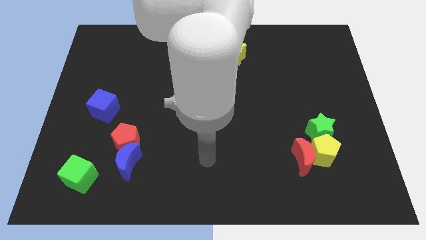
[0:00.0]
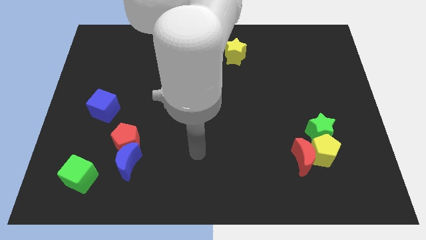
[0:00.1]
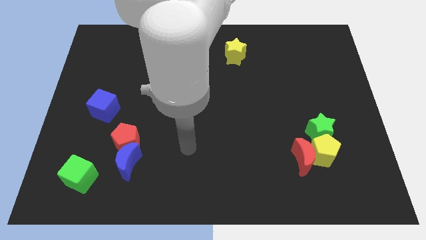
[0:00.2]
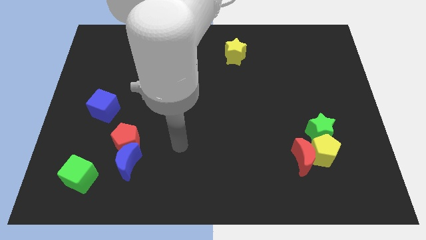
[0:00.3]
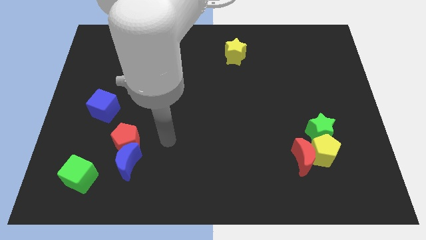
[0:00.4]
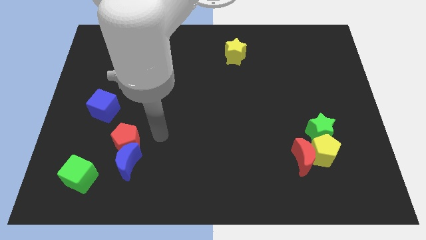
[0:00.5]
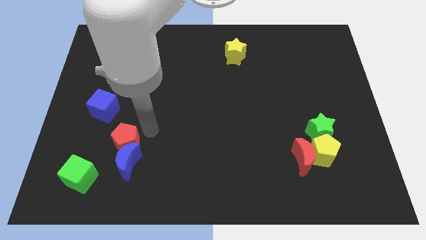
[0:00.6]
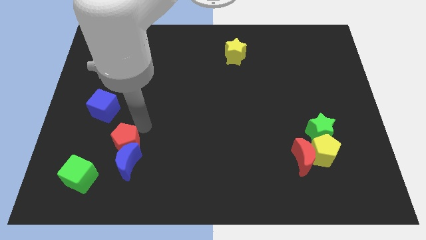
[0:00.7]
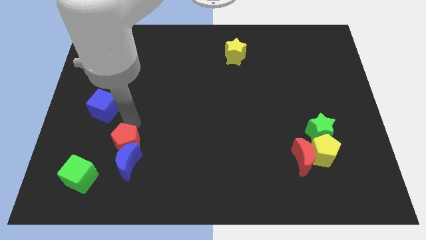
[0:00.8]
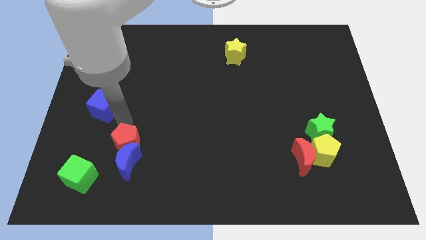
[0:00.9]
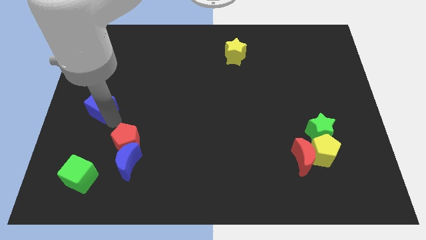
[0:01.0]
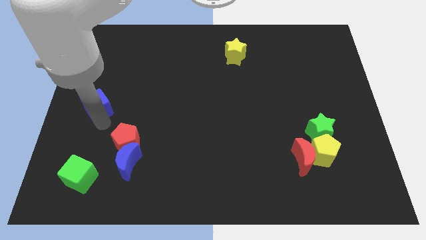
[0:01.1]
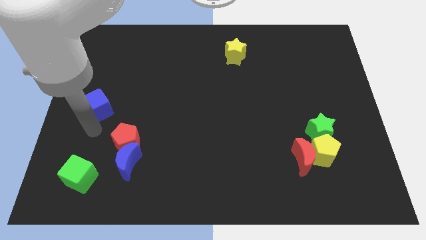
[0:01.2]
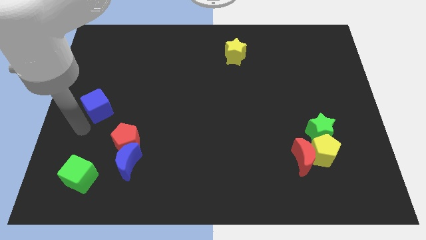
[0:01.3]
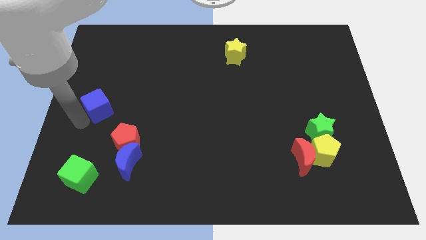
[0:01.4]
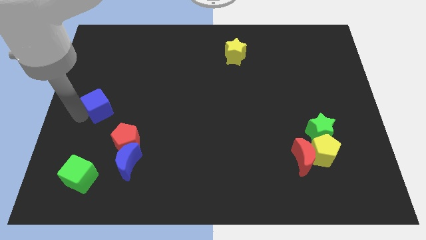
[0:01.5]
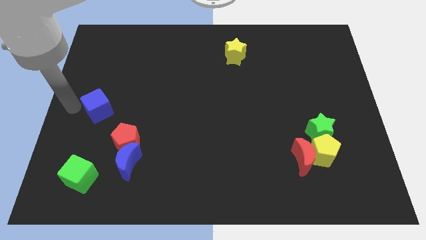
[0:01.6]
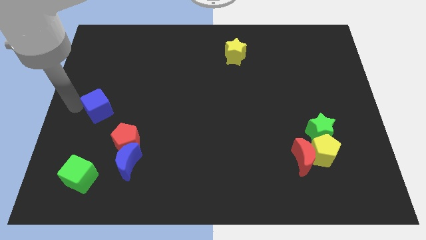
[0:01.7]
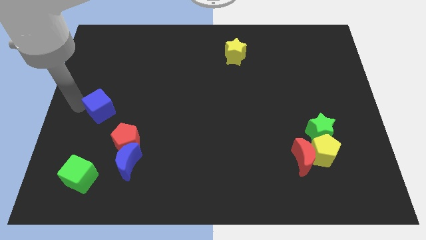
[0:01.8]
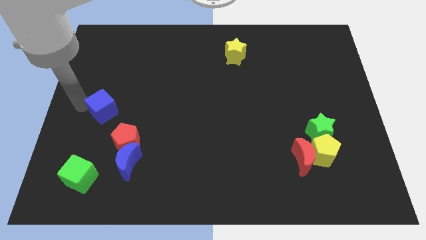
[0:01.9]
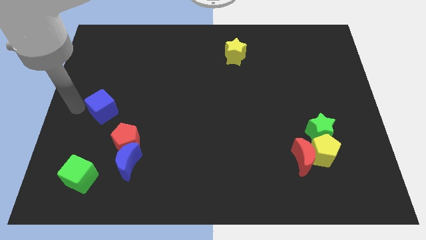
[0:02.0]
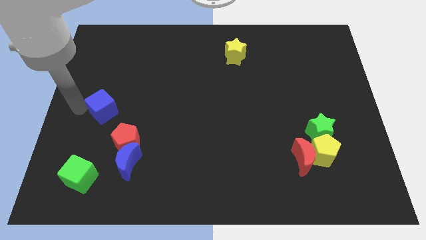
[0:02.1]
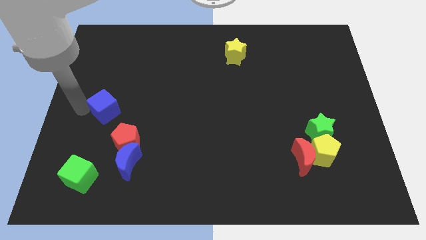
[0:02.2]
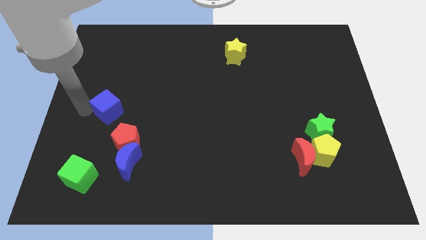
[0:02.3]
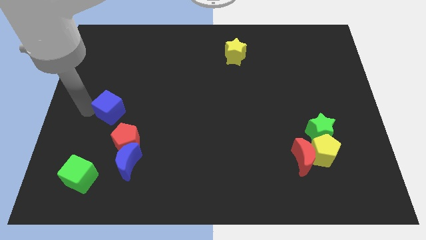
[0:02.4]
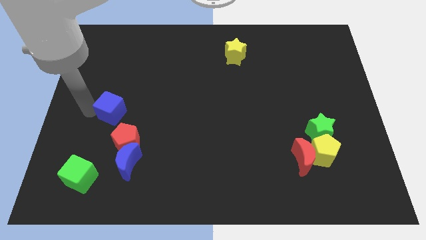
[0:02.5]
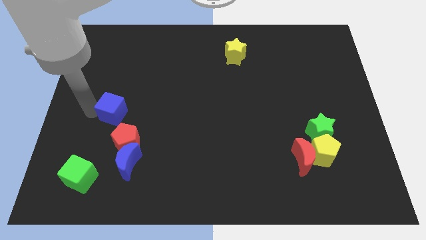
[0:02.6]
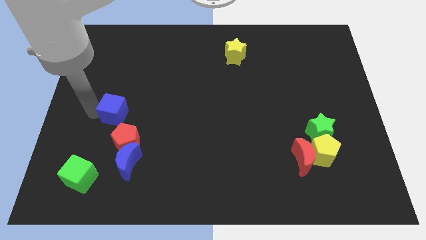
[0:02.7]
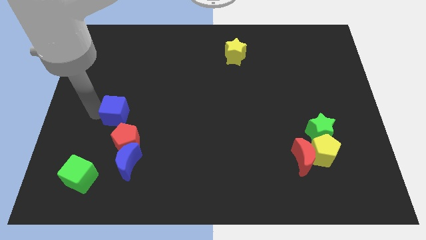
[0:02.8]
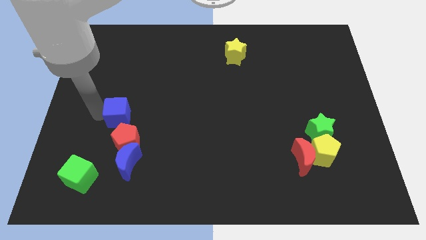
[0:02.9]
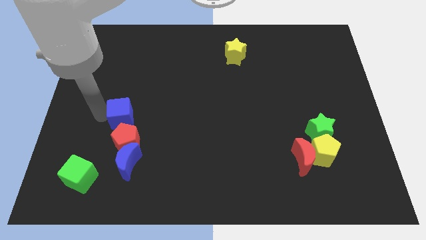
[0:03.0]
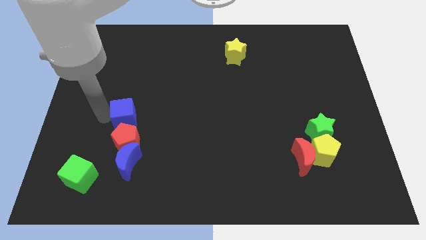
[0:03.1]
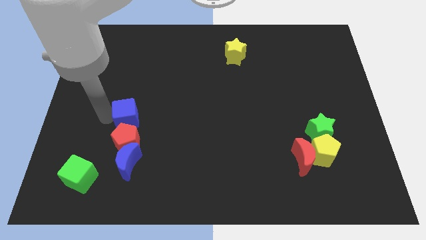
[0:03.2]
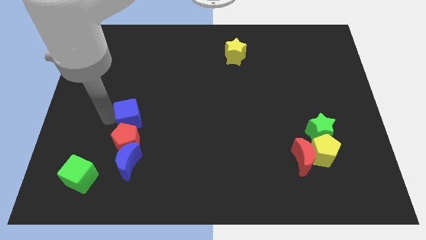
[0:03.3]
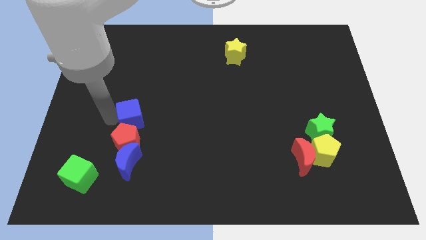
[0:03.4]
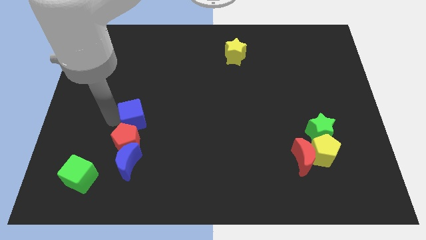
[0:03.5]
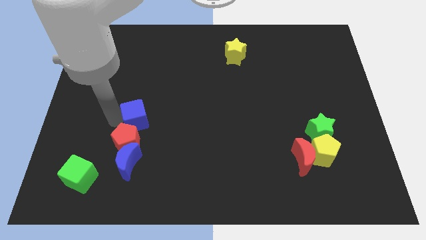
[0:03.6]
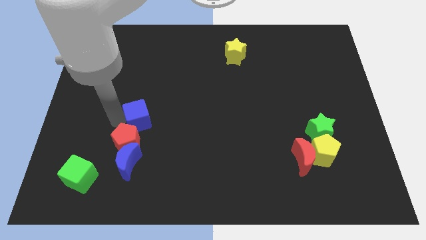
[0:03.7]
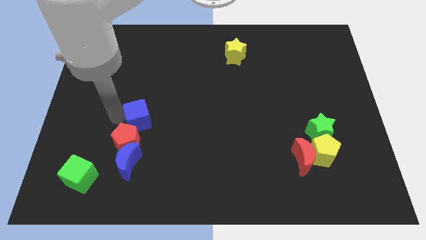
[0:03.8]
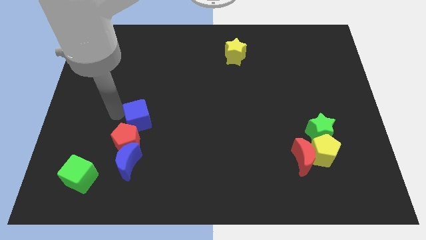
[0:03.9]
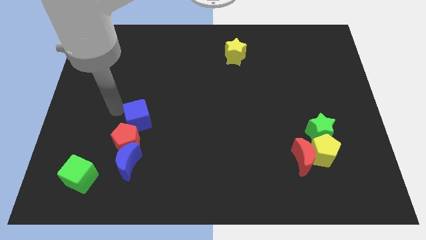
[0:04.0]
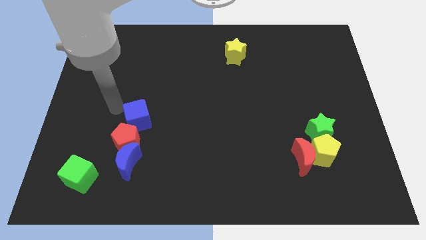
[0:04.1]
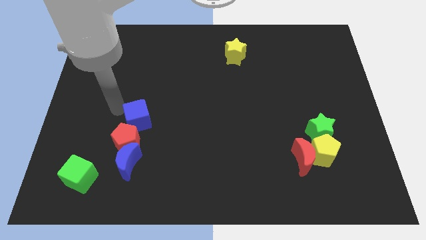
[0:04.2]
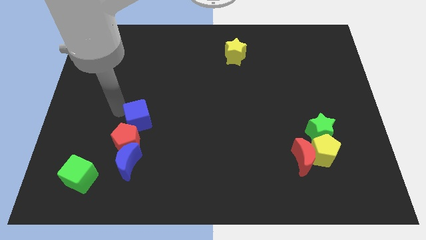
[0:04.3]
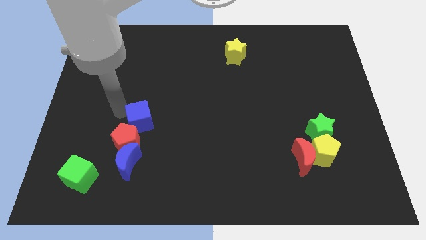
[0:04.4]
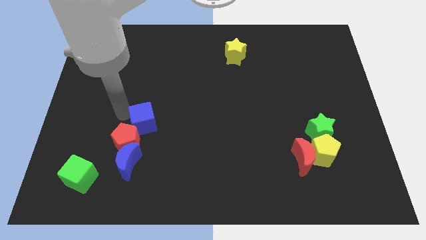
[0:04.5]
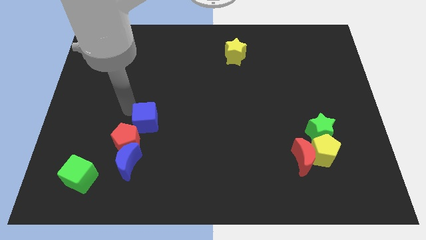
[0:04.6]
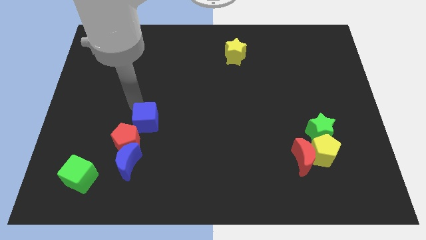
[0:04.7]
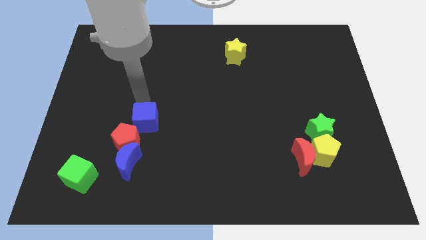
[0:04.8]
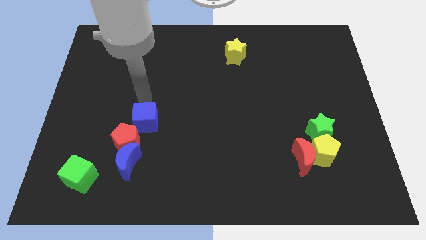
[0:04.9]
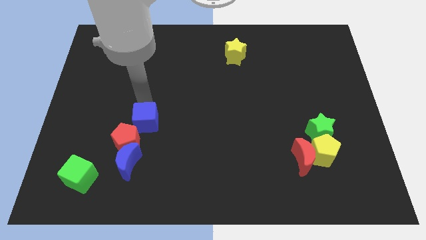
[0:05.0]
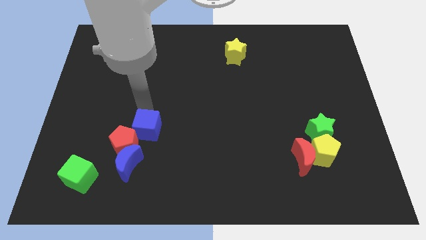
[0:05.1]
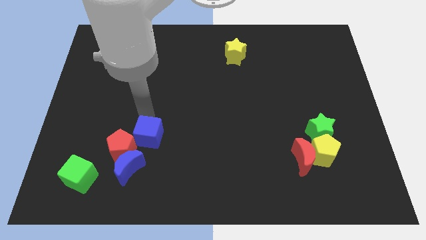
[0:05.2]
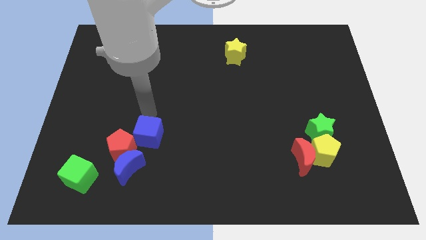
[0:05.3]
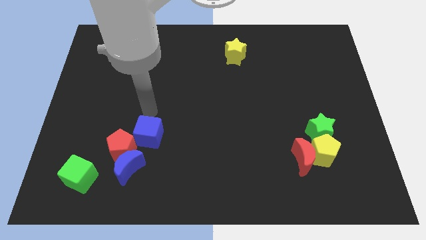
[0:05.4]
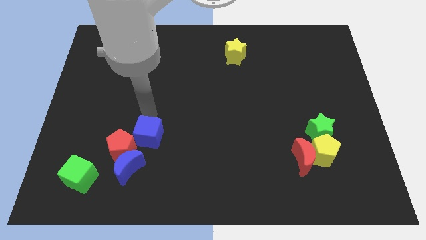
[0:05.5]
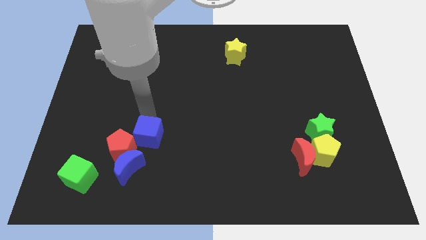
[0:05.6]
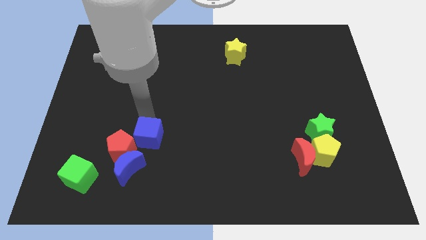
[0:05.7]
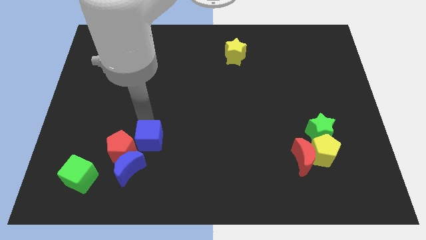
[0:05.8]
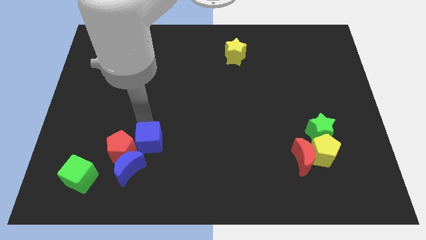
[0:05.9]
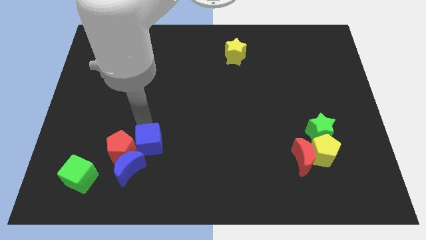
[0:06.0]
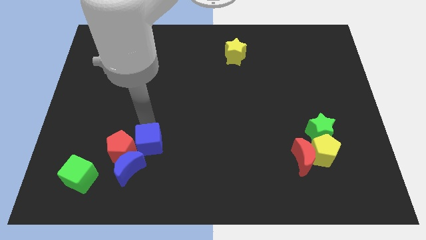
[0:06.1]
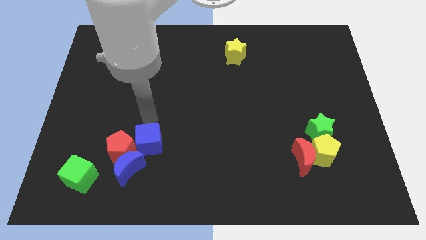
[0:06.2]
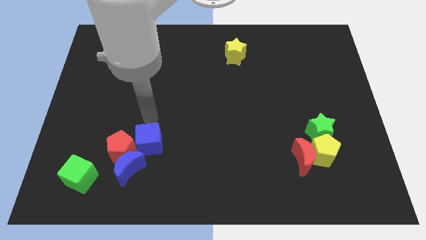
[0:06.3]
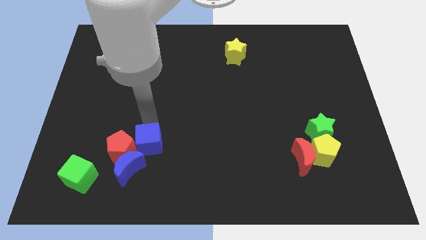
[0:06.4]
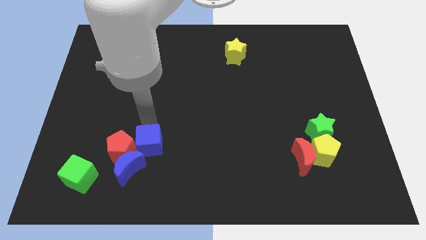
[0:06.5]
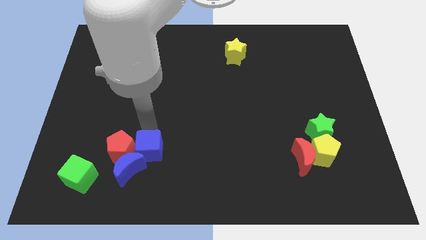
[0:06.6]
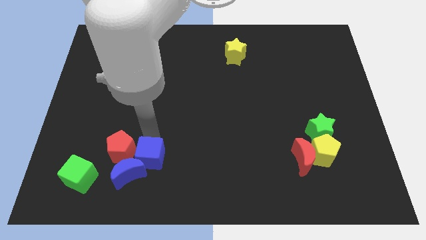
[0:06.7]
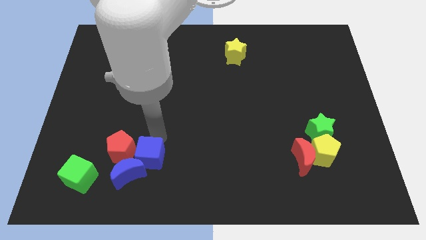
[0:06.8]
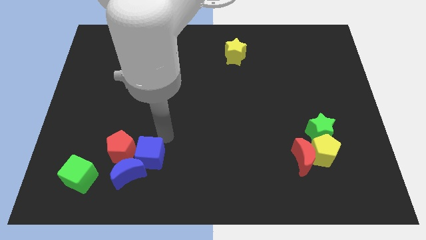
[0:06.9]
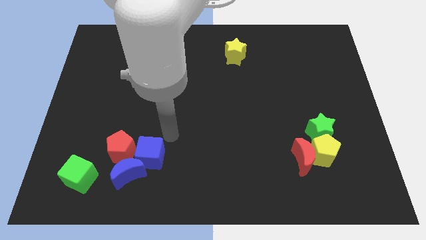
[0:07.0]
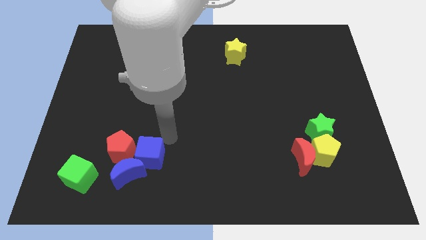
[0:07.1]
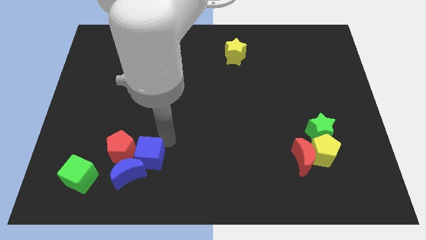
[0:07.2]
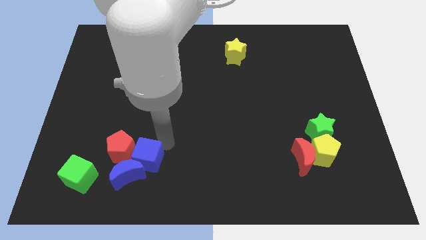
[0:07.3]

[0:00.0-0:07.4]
slide the blue cube just right of the green cube

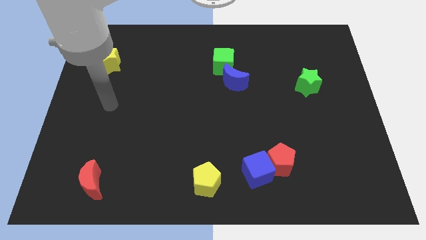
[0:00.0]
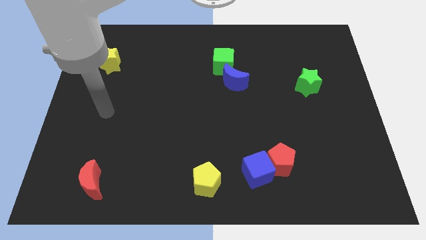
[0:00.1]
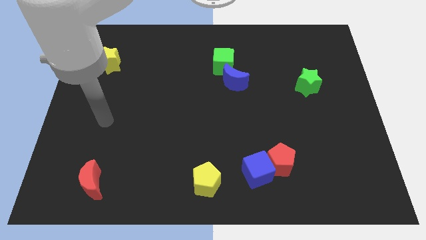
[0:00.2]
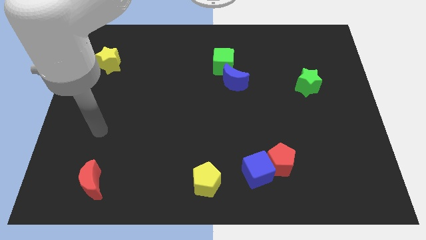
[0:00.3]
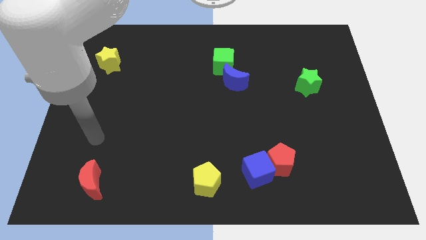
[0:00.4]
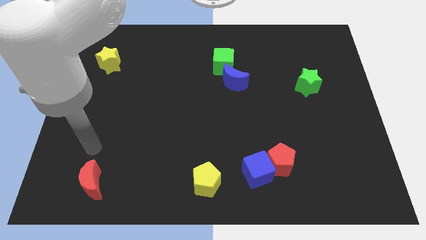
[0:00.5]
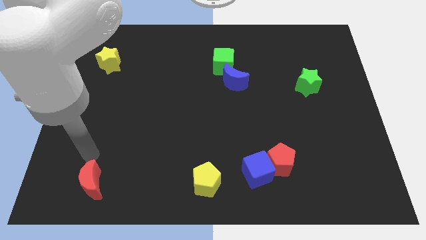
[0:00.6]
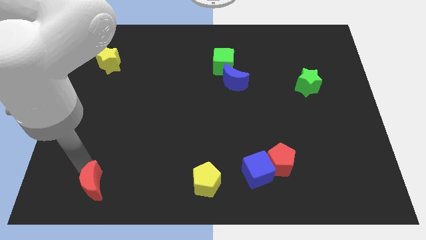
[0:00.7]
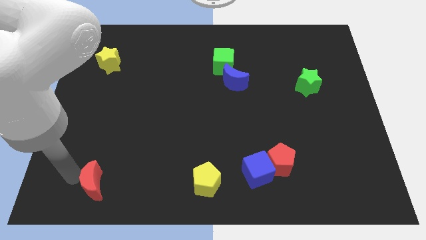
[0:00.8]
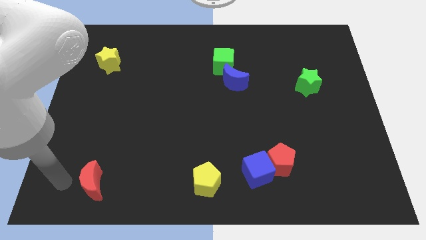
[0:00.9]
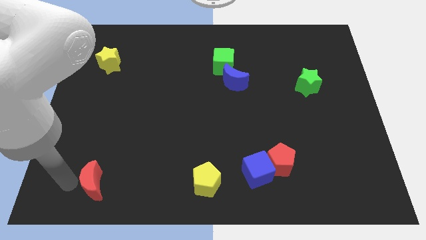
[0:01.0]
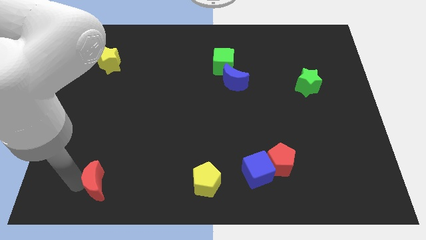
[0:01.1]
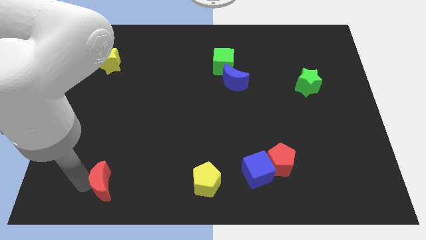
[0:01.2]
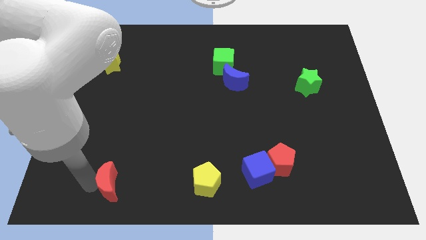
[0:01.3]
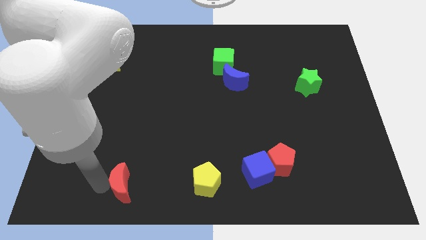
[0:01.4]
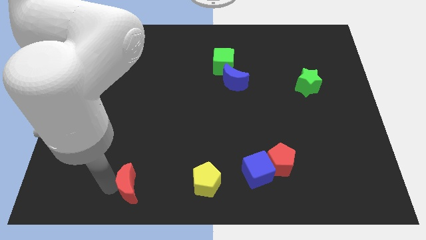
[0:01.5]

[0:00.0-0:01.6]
move the red moon to the left side of the yellow pentagon
